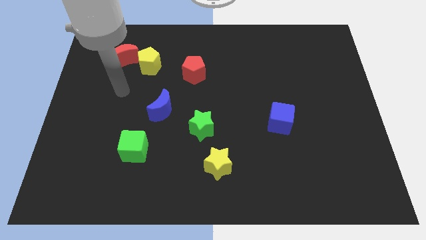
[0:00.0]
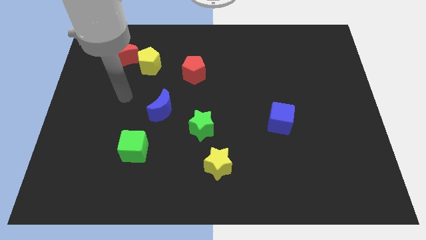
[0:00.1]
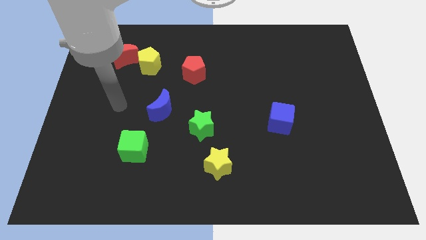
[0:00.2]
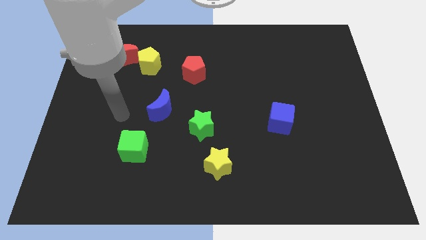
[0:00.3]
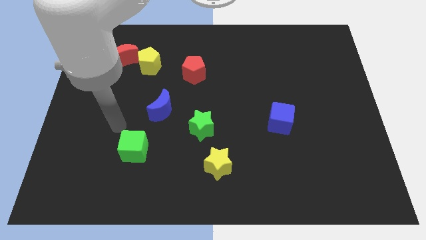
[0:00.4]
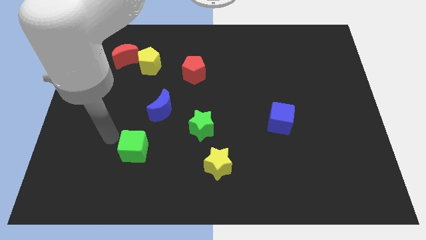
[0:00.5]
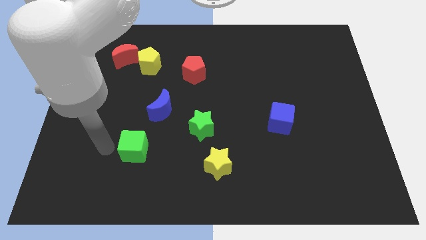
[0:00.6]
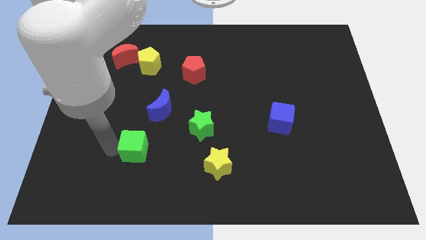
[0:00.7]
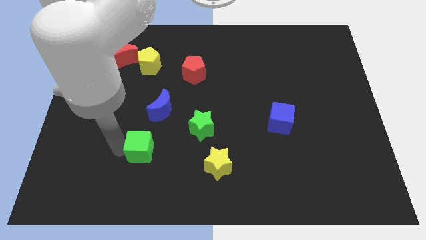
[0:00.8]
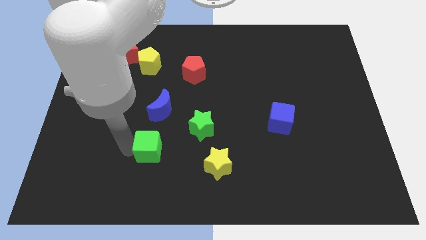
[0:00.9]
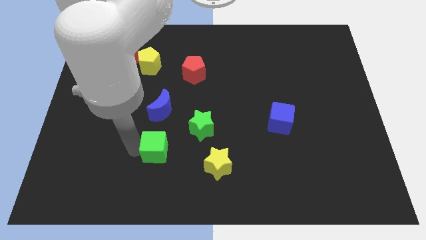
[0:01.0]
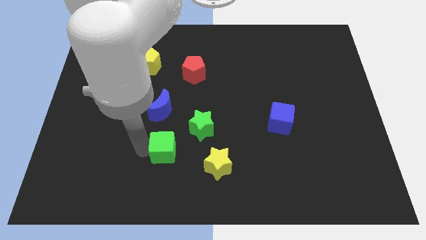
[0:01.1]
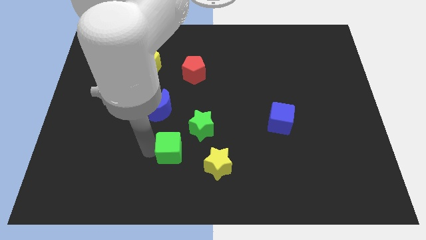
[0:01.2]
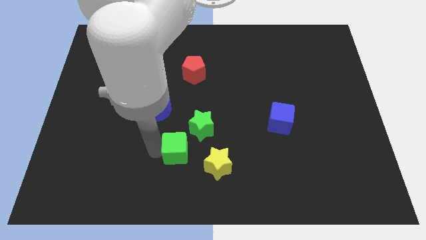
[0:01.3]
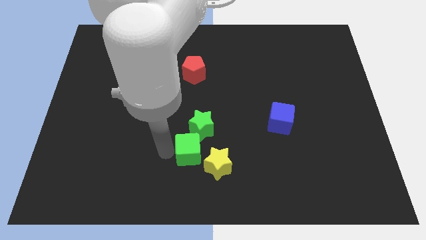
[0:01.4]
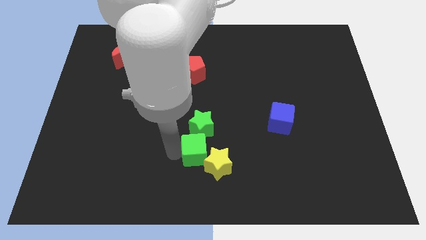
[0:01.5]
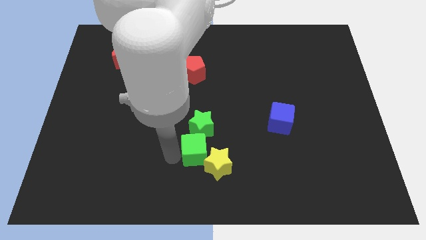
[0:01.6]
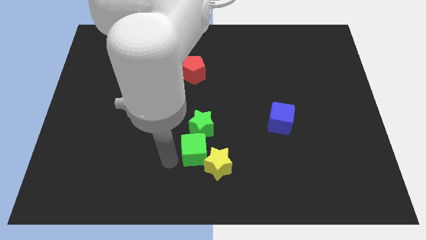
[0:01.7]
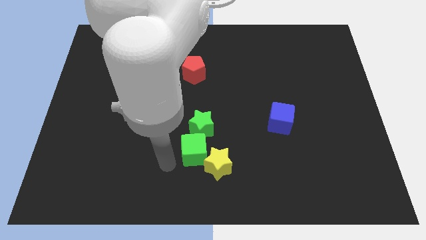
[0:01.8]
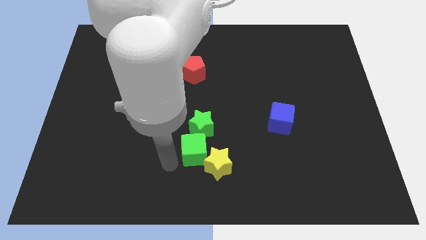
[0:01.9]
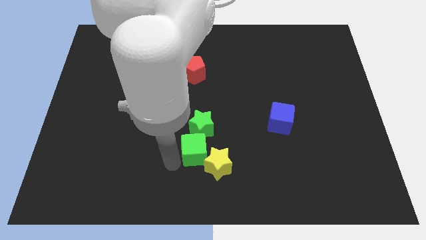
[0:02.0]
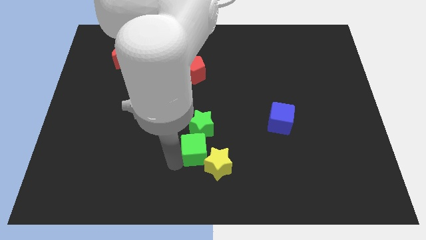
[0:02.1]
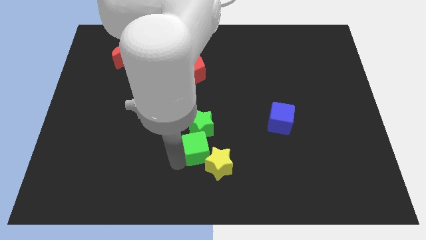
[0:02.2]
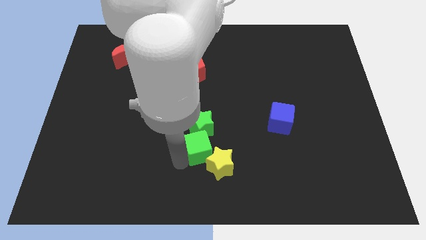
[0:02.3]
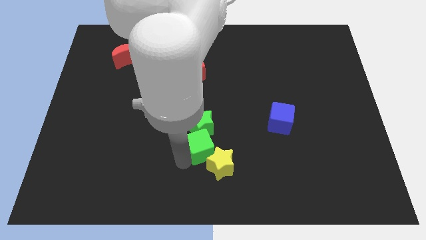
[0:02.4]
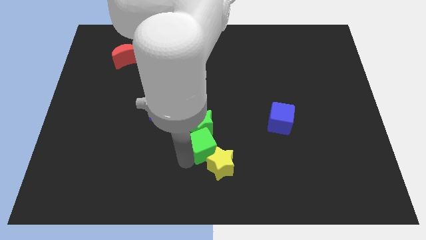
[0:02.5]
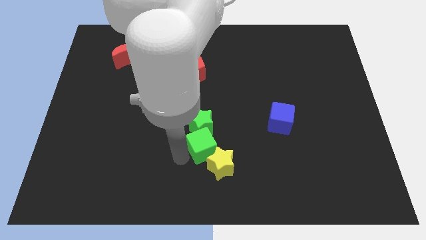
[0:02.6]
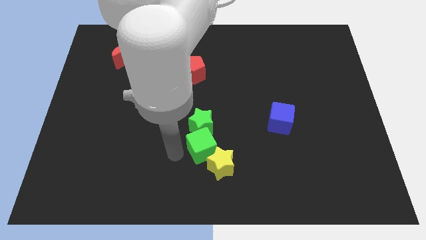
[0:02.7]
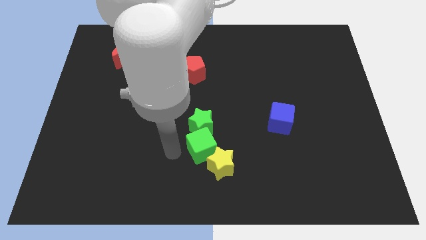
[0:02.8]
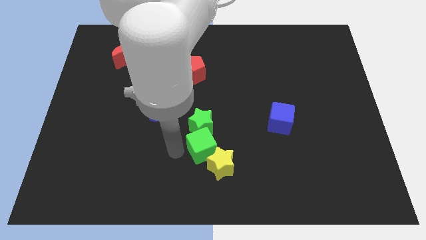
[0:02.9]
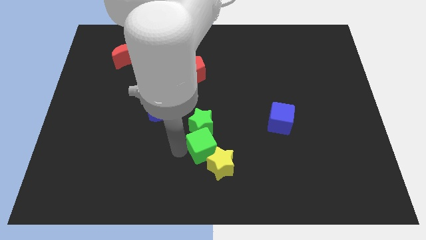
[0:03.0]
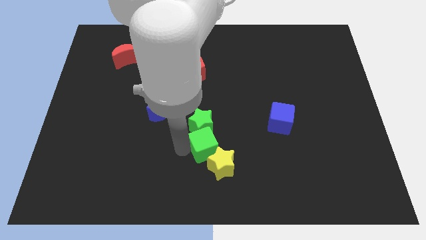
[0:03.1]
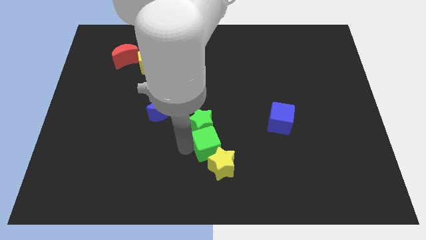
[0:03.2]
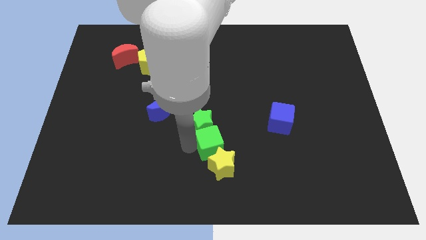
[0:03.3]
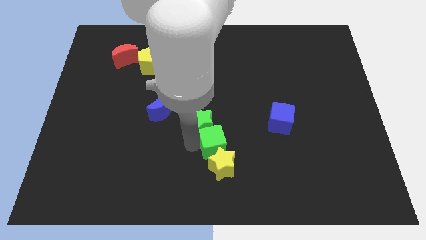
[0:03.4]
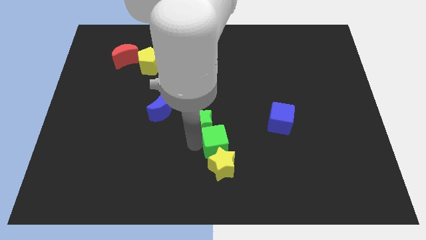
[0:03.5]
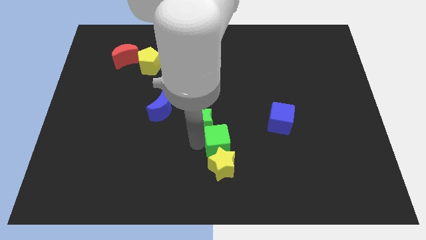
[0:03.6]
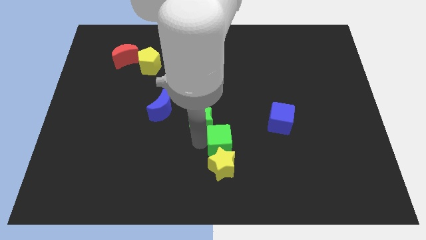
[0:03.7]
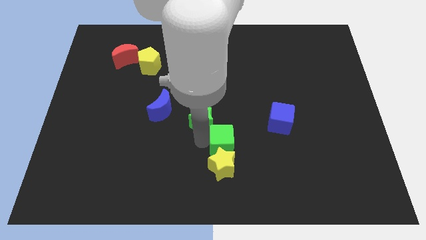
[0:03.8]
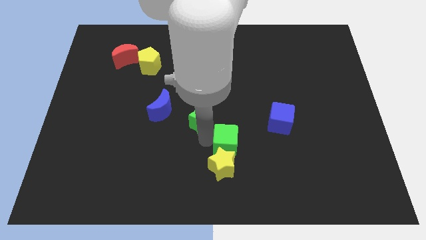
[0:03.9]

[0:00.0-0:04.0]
push the green cube right

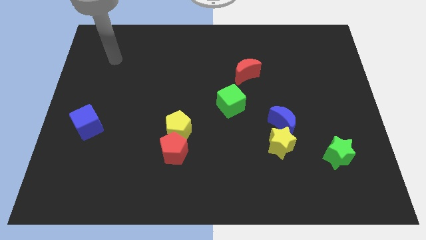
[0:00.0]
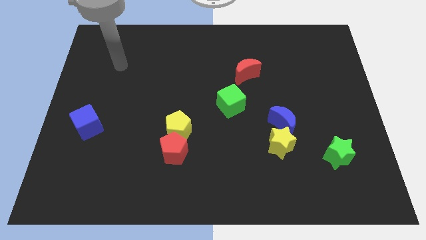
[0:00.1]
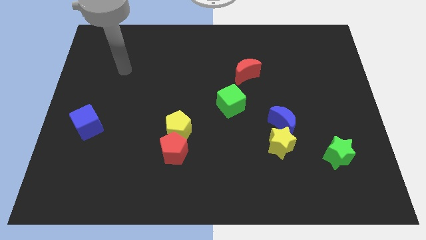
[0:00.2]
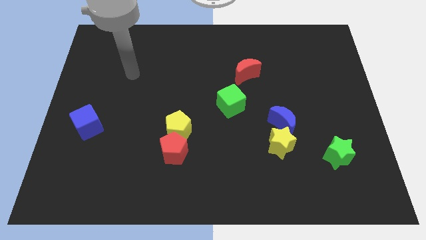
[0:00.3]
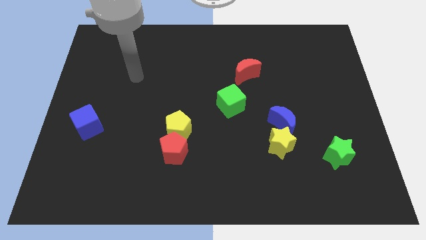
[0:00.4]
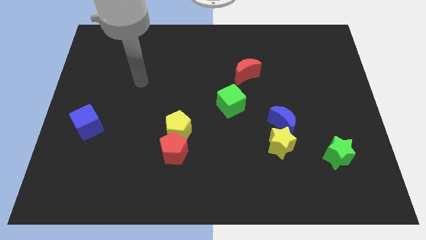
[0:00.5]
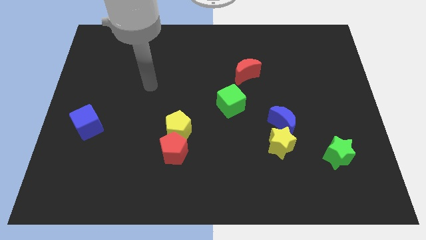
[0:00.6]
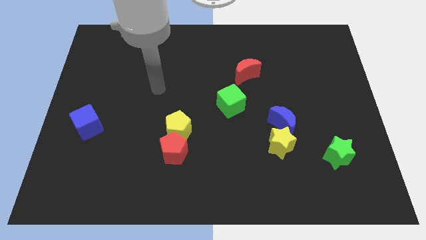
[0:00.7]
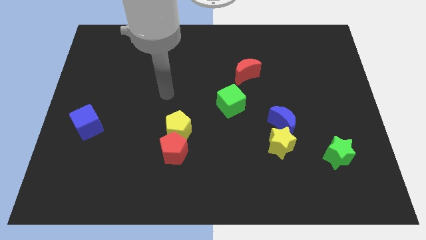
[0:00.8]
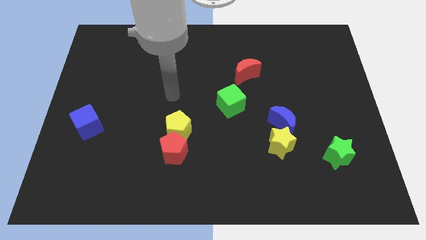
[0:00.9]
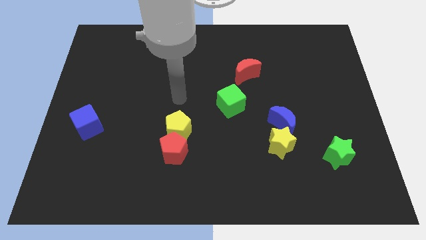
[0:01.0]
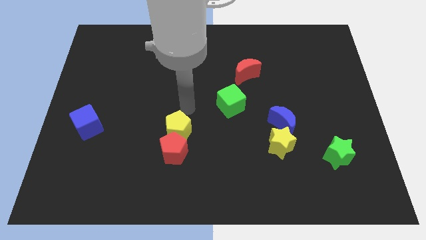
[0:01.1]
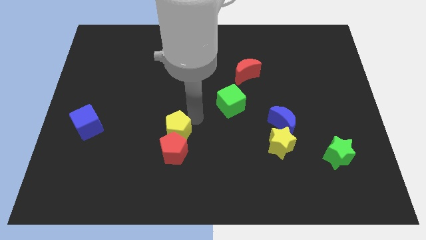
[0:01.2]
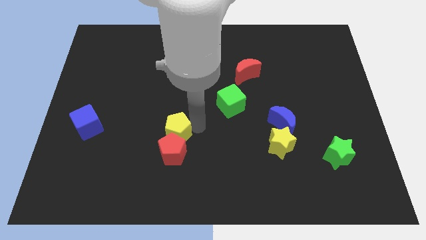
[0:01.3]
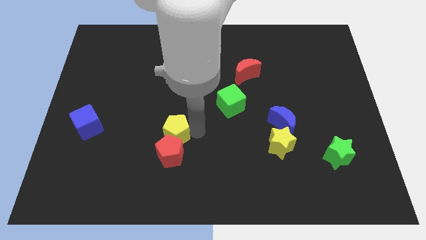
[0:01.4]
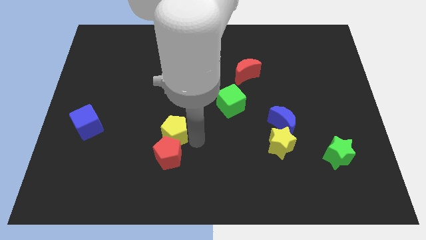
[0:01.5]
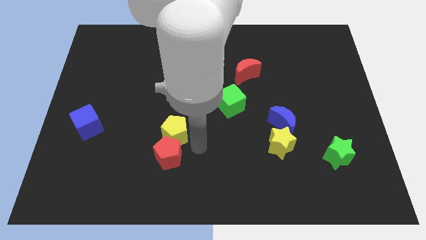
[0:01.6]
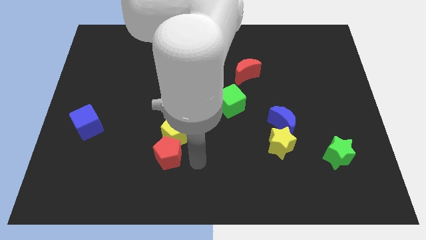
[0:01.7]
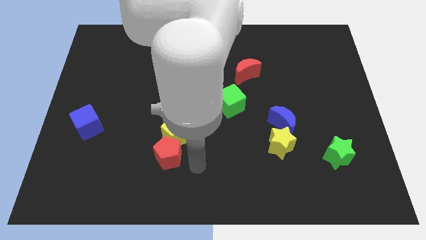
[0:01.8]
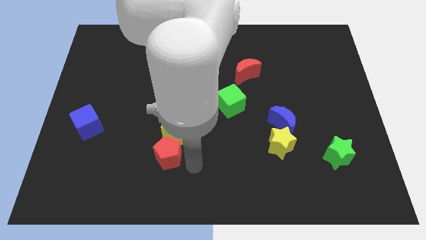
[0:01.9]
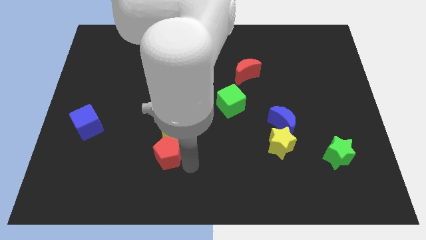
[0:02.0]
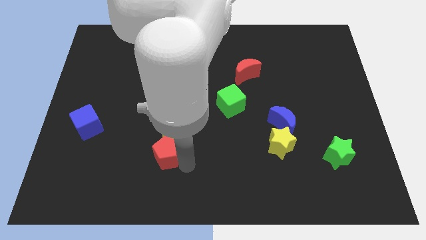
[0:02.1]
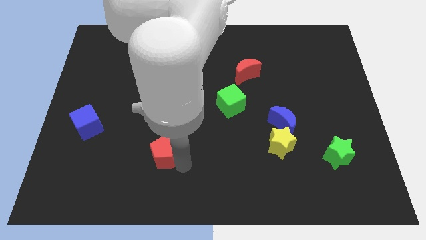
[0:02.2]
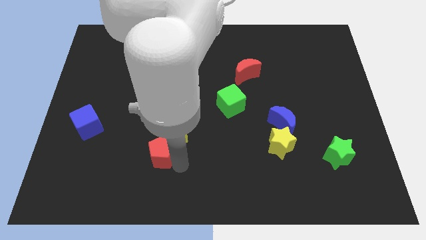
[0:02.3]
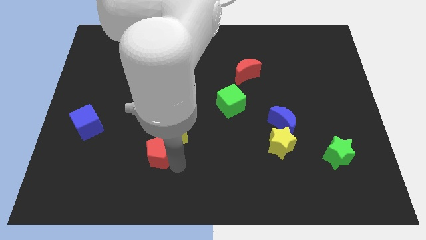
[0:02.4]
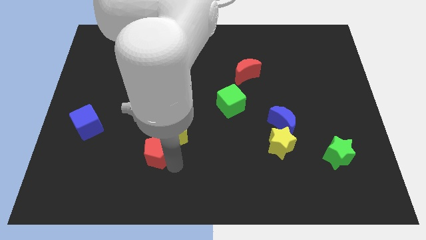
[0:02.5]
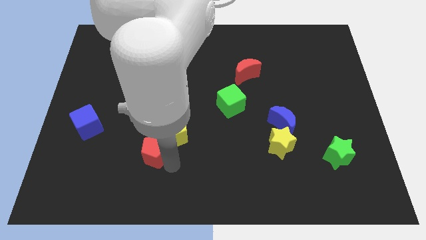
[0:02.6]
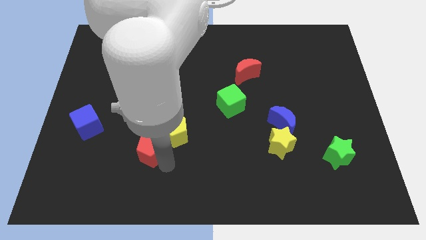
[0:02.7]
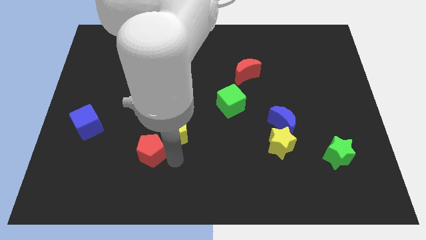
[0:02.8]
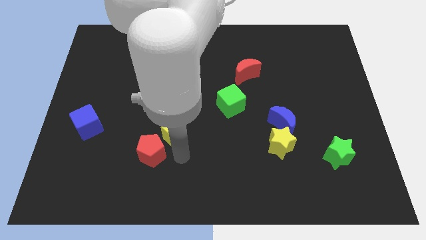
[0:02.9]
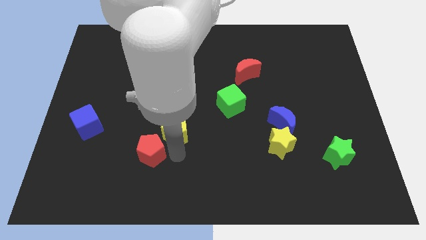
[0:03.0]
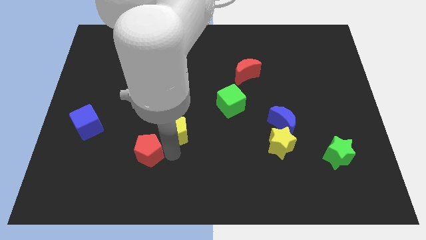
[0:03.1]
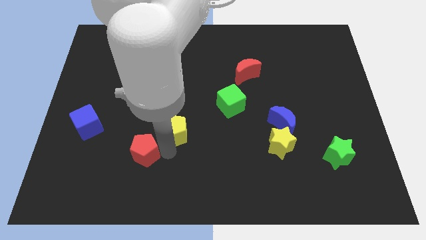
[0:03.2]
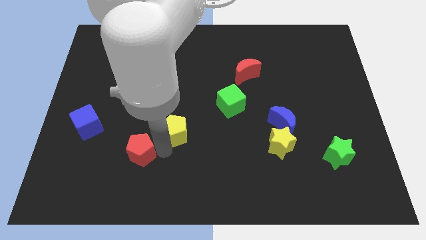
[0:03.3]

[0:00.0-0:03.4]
push the red pentagon a little bit left

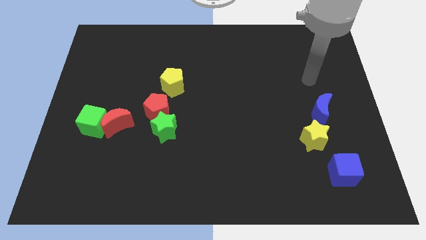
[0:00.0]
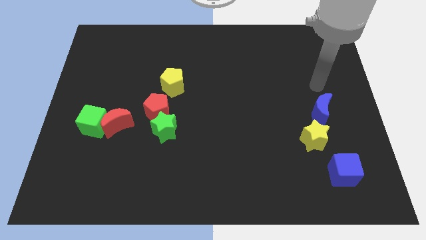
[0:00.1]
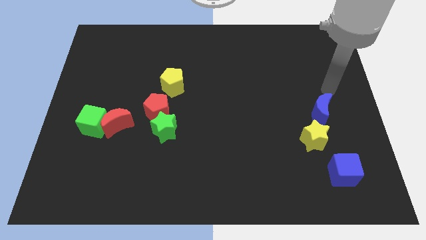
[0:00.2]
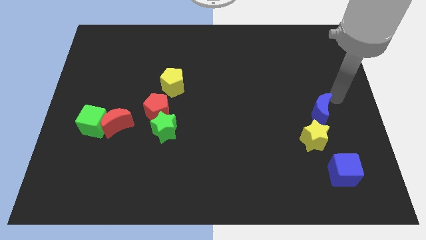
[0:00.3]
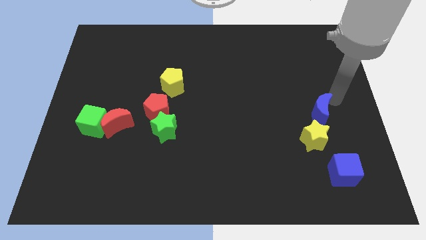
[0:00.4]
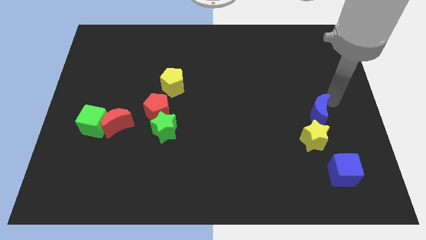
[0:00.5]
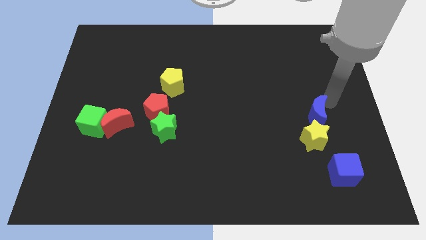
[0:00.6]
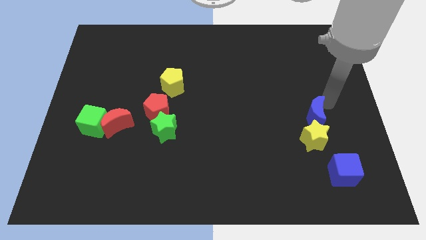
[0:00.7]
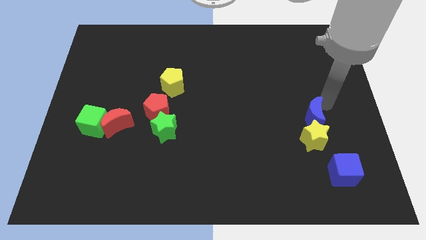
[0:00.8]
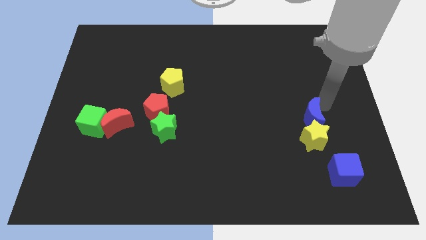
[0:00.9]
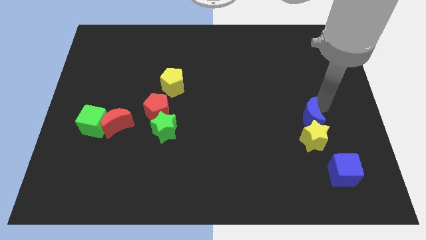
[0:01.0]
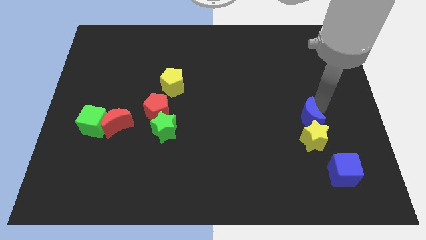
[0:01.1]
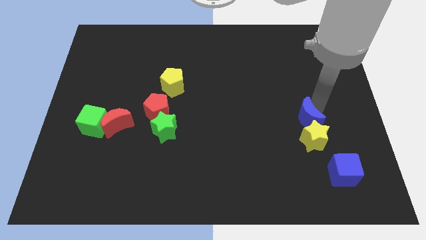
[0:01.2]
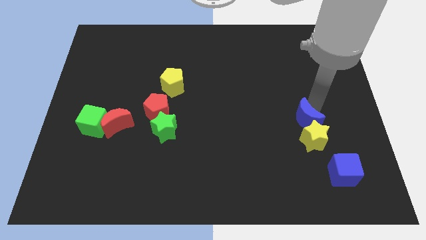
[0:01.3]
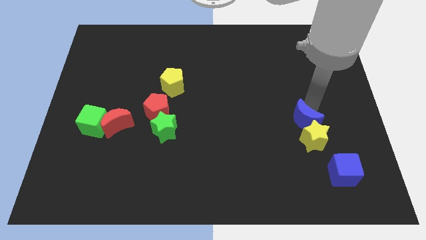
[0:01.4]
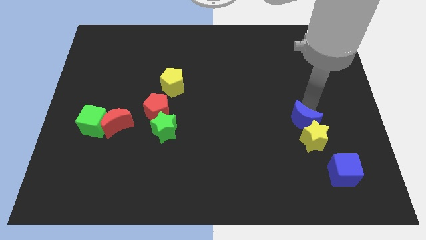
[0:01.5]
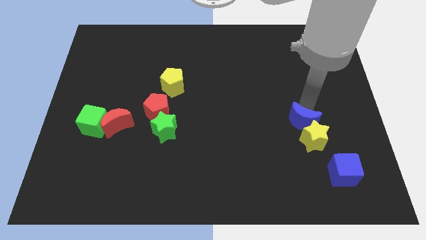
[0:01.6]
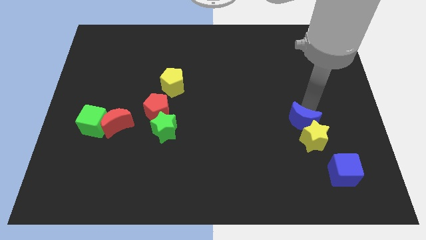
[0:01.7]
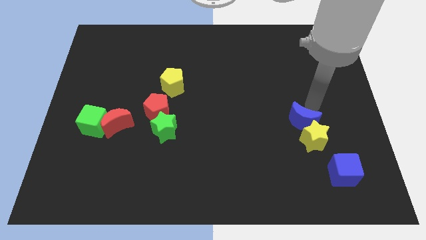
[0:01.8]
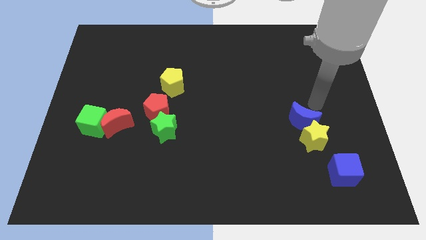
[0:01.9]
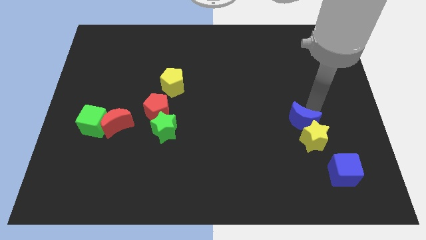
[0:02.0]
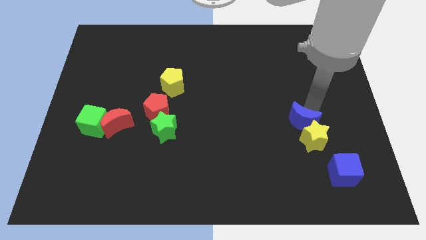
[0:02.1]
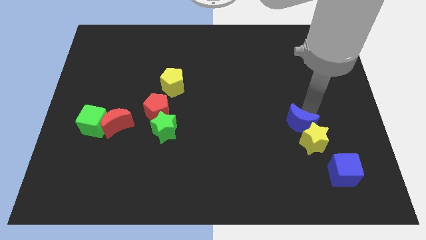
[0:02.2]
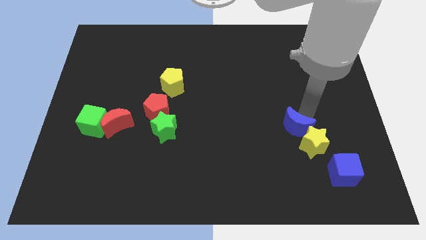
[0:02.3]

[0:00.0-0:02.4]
slightly push the blue moon down and left diagonally
